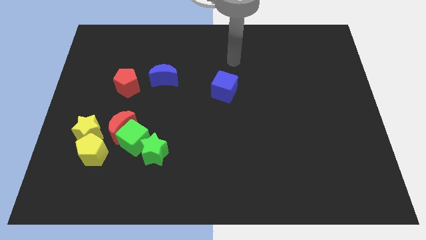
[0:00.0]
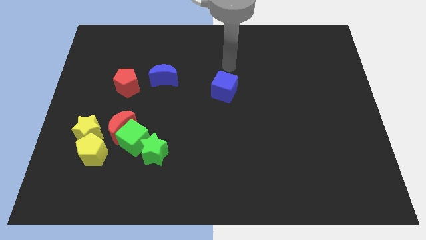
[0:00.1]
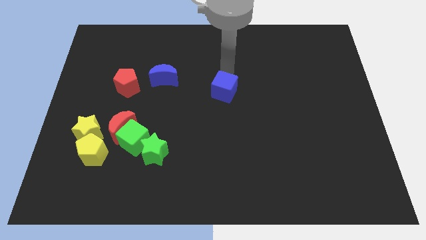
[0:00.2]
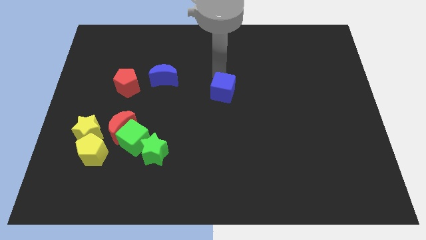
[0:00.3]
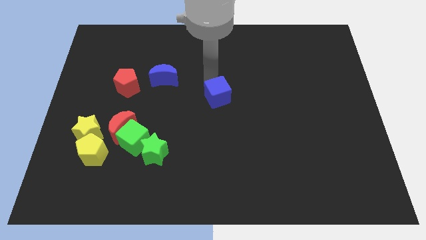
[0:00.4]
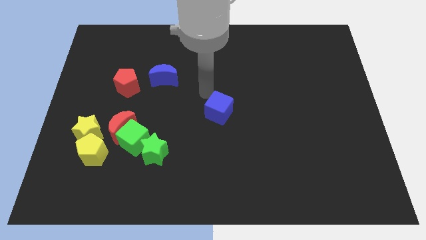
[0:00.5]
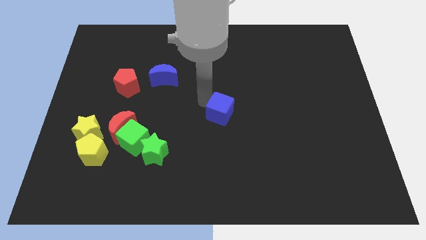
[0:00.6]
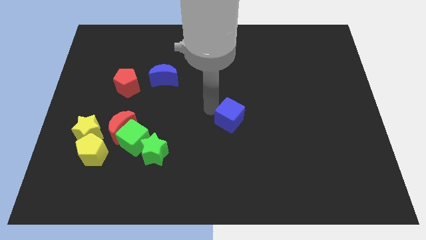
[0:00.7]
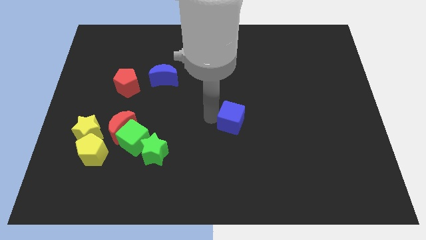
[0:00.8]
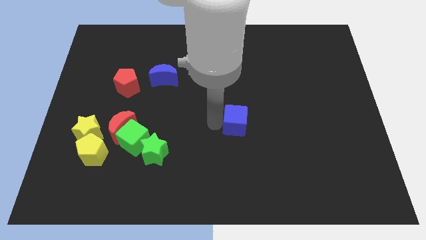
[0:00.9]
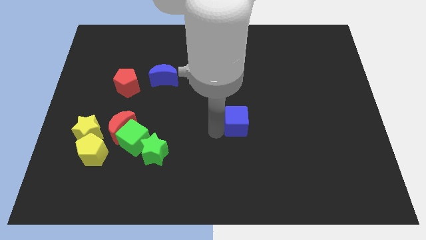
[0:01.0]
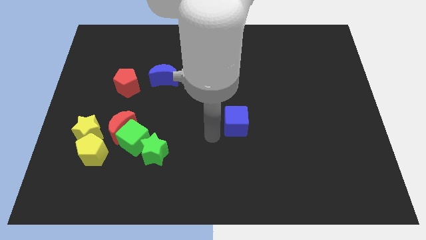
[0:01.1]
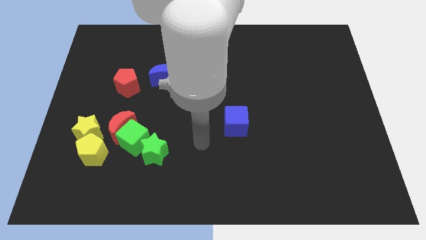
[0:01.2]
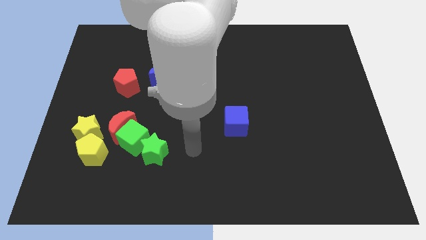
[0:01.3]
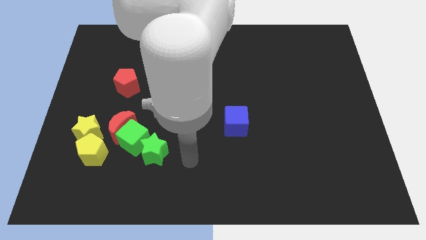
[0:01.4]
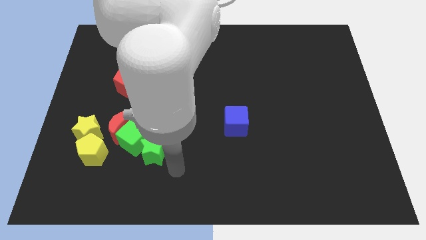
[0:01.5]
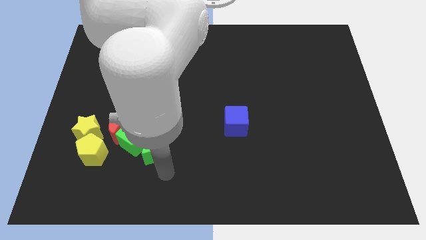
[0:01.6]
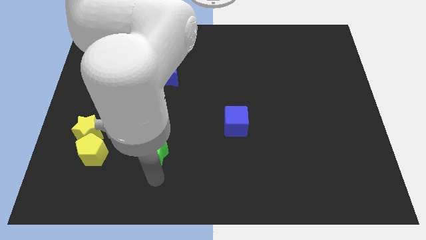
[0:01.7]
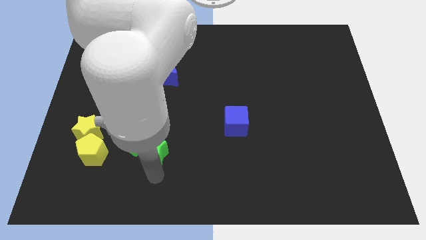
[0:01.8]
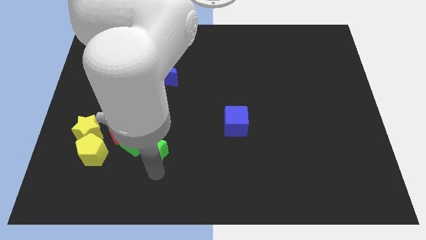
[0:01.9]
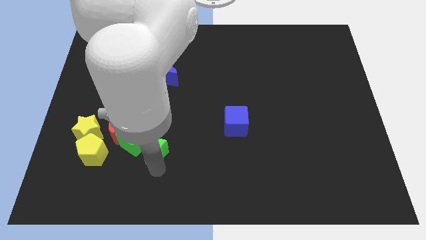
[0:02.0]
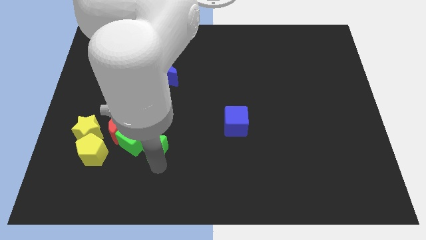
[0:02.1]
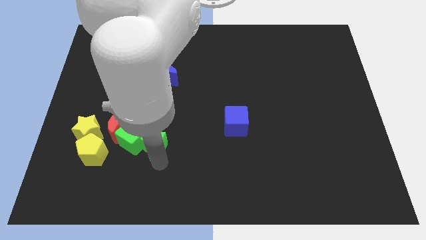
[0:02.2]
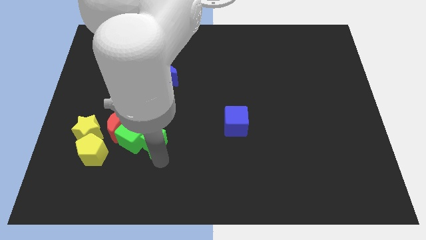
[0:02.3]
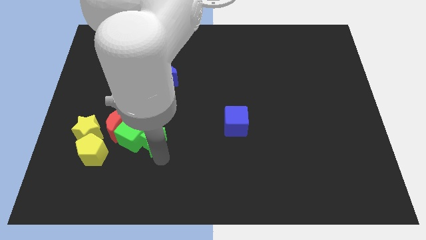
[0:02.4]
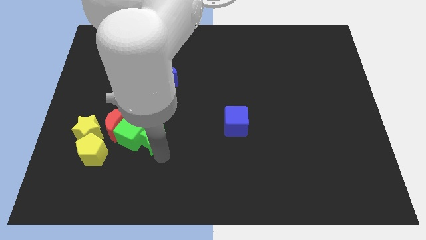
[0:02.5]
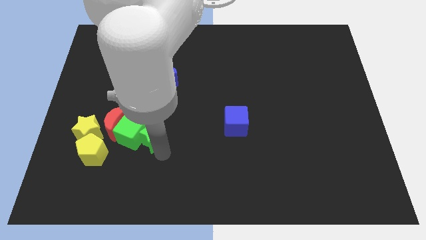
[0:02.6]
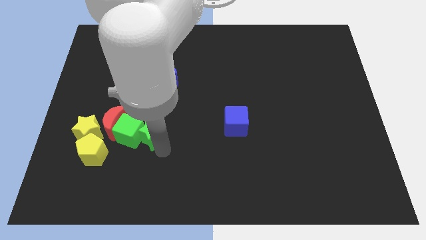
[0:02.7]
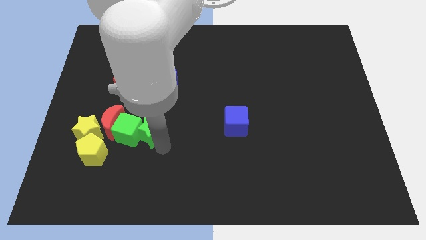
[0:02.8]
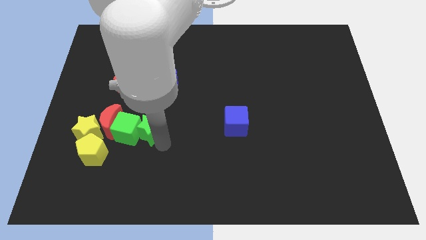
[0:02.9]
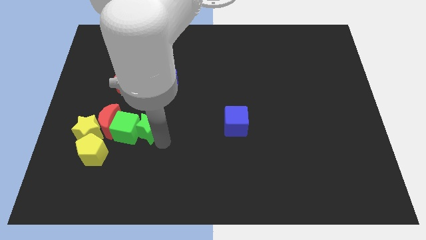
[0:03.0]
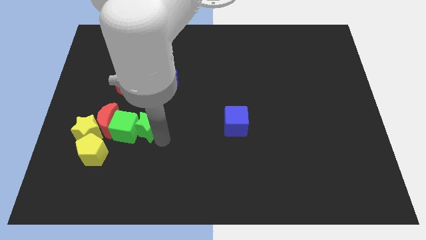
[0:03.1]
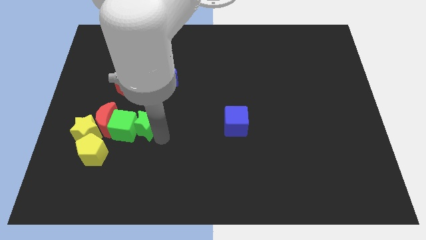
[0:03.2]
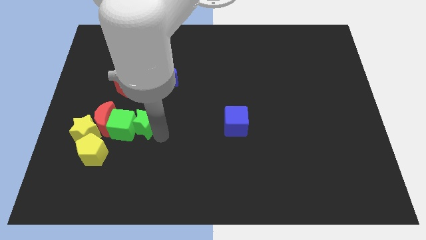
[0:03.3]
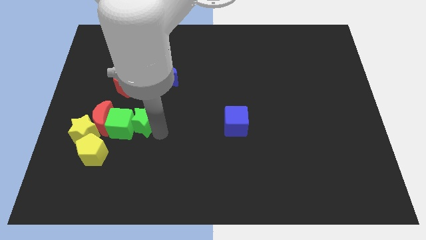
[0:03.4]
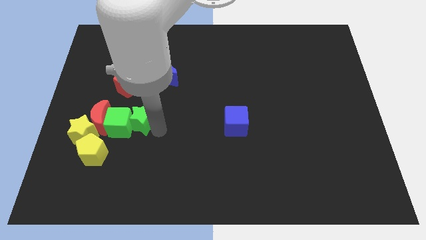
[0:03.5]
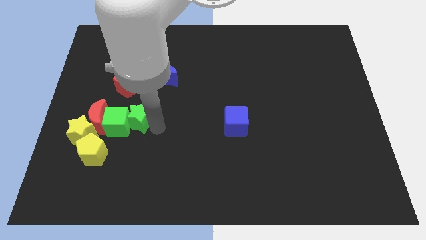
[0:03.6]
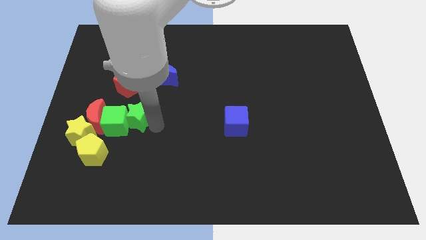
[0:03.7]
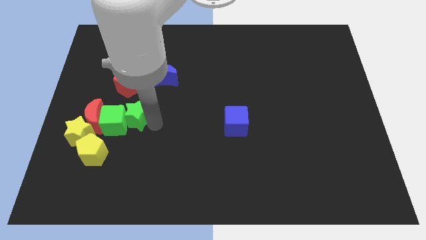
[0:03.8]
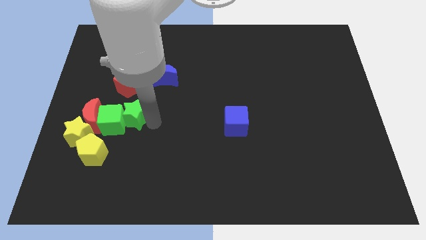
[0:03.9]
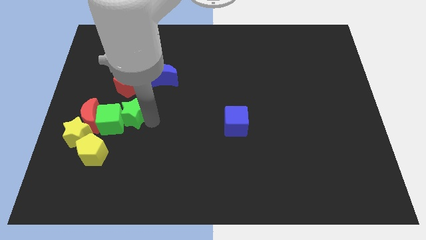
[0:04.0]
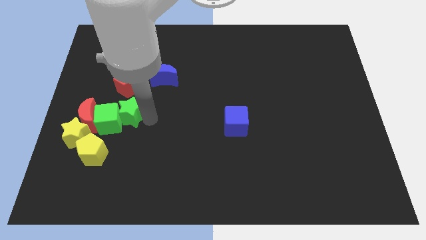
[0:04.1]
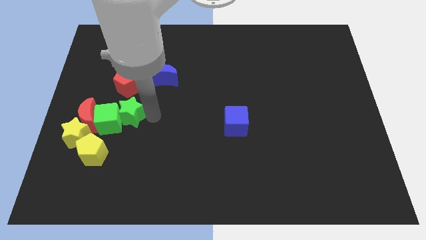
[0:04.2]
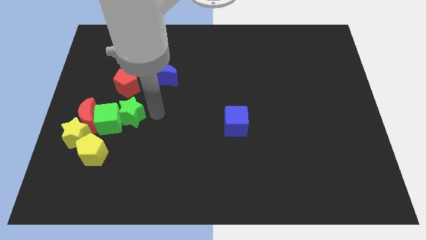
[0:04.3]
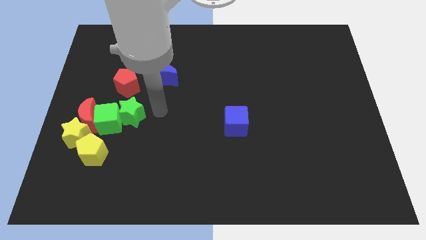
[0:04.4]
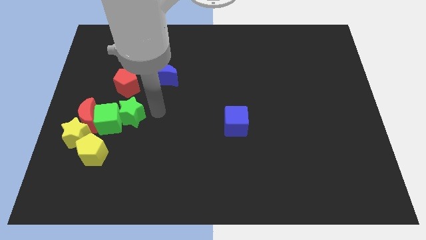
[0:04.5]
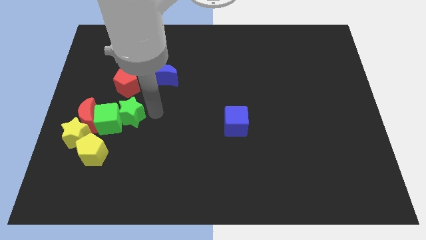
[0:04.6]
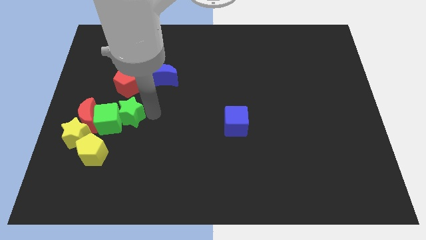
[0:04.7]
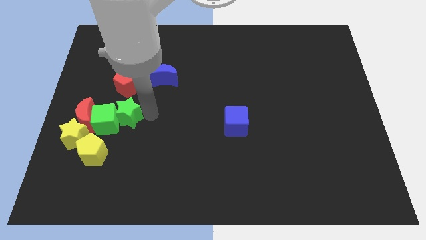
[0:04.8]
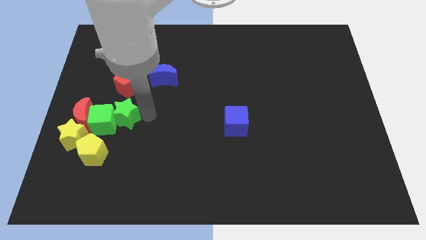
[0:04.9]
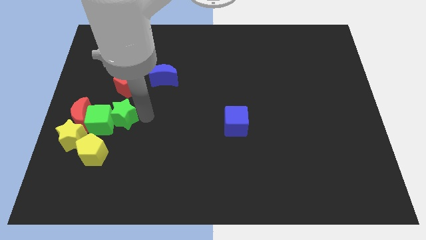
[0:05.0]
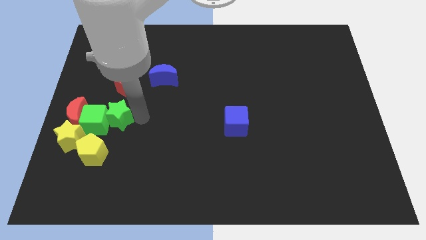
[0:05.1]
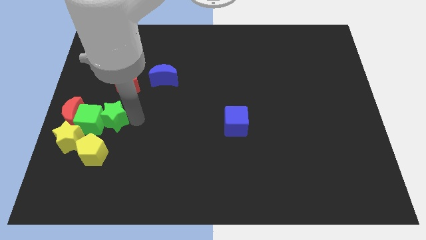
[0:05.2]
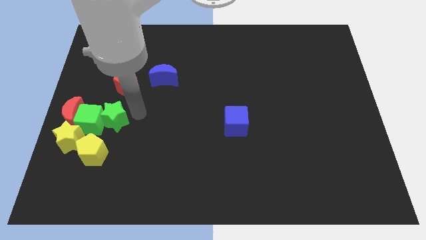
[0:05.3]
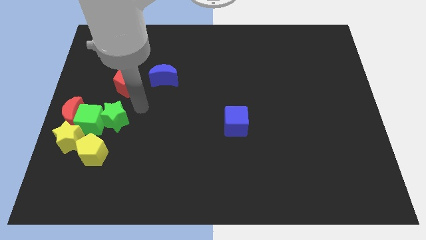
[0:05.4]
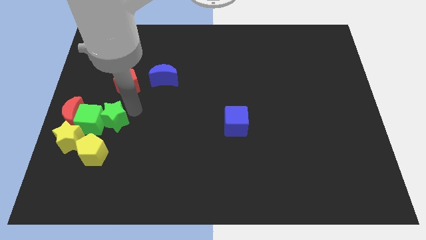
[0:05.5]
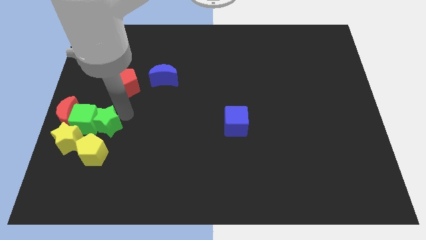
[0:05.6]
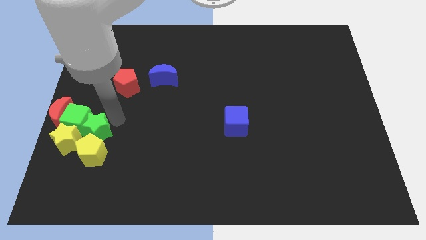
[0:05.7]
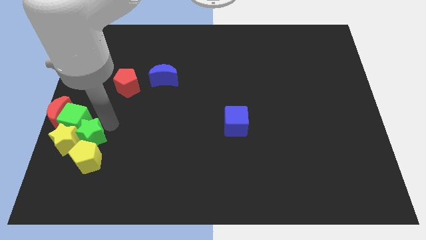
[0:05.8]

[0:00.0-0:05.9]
slide the green star towards the yellow star

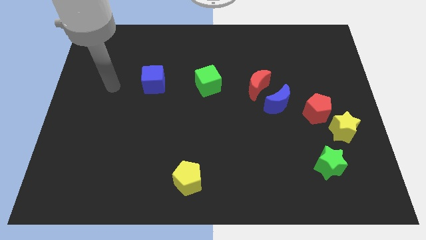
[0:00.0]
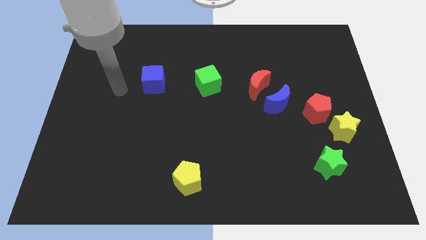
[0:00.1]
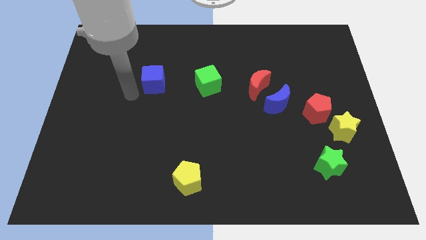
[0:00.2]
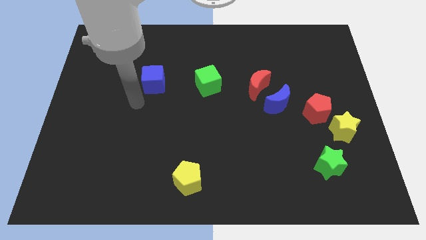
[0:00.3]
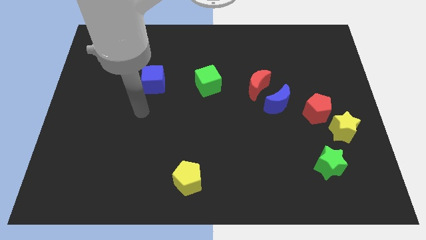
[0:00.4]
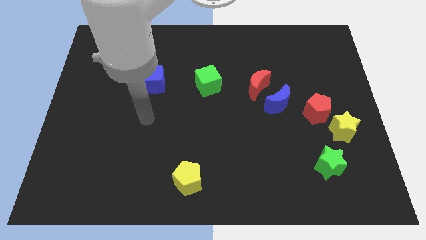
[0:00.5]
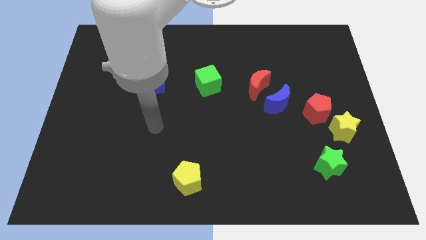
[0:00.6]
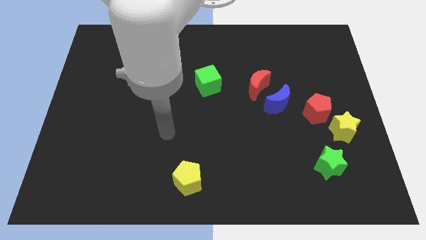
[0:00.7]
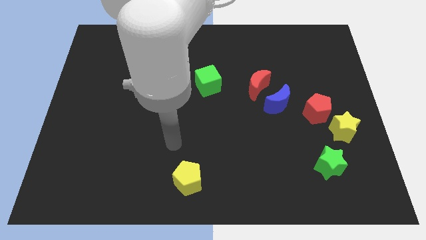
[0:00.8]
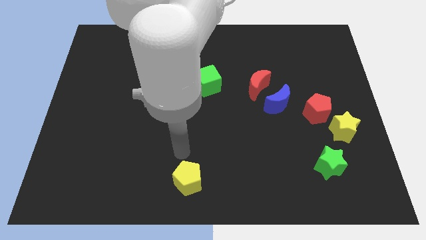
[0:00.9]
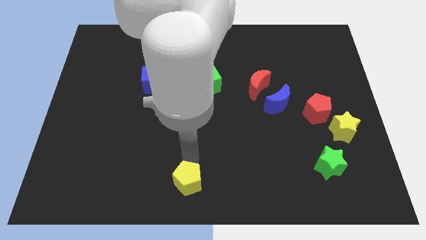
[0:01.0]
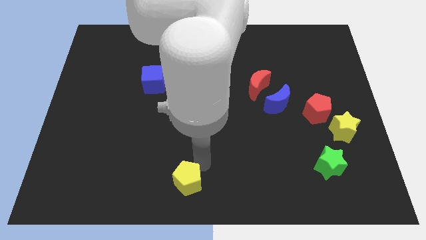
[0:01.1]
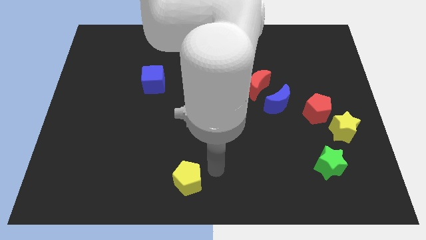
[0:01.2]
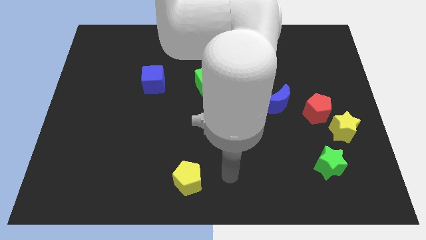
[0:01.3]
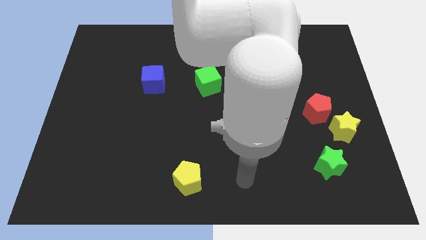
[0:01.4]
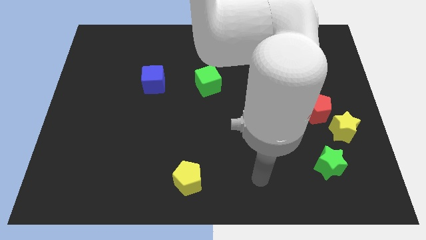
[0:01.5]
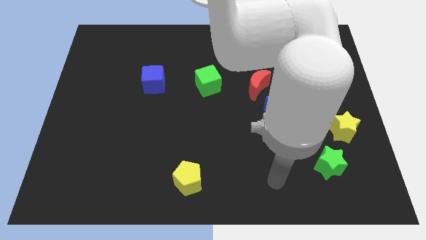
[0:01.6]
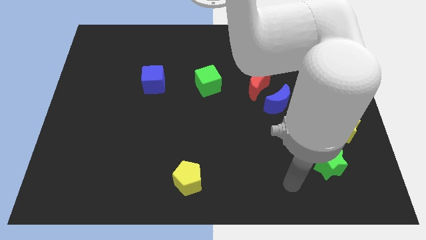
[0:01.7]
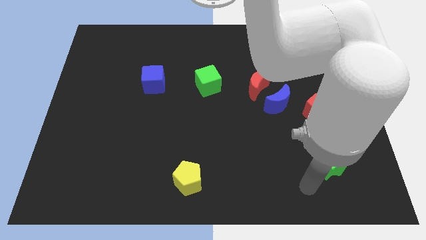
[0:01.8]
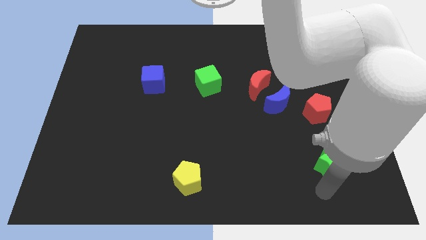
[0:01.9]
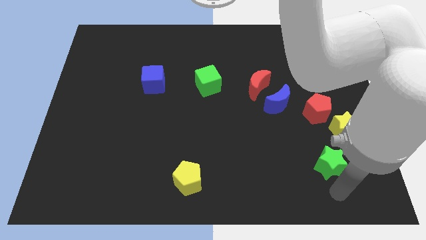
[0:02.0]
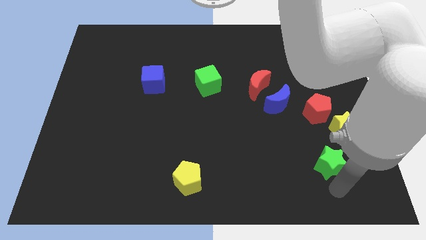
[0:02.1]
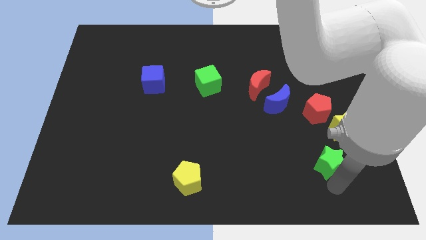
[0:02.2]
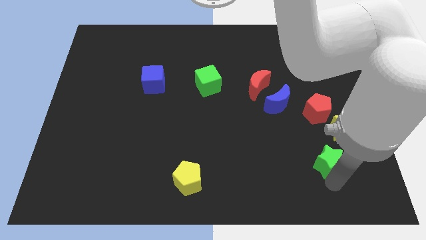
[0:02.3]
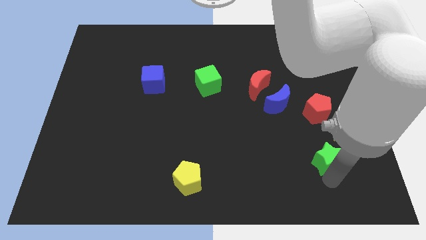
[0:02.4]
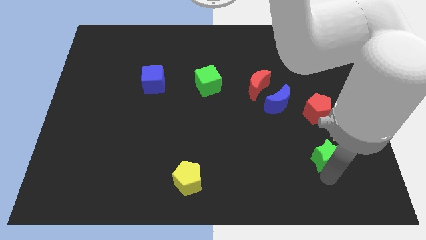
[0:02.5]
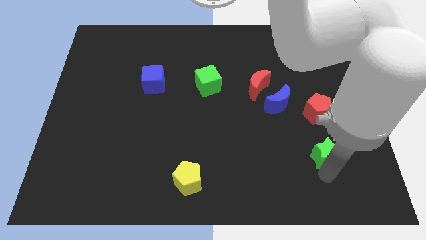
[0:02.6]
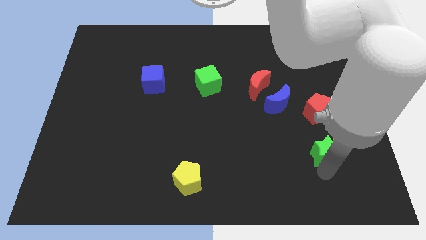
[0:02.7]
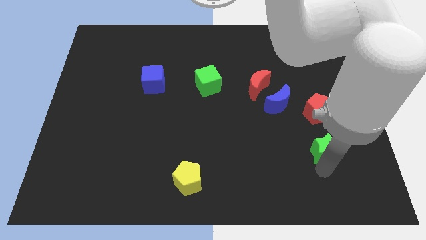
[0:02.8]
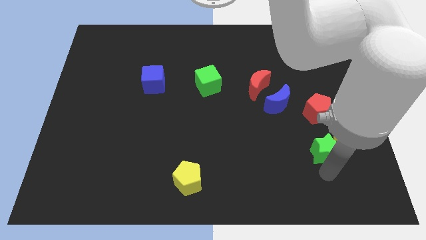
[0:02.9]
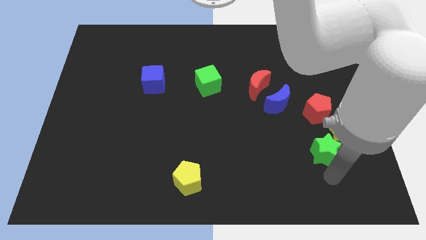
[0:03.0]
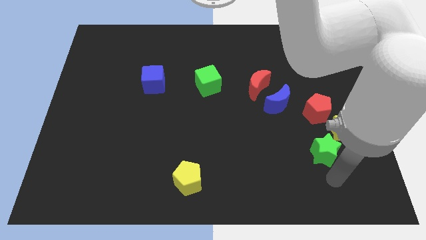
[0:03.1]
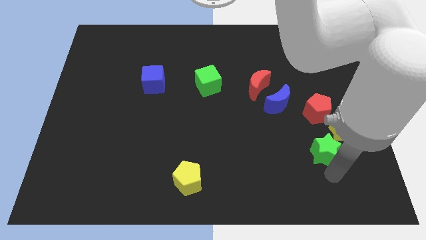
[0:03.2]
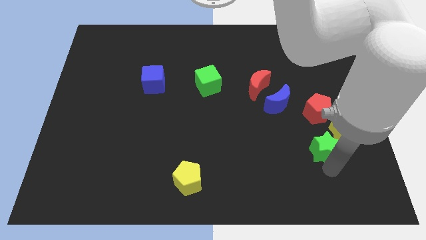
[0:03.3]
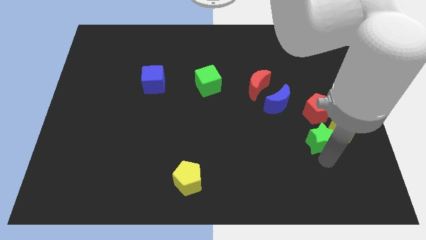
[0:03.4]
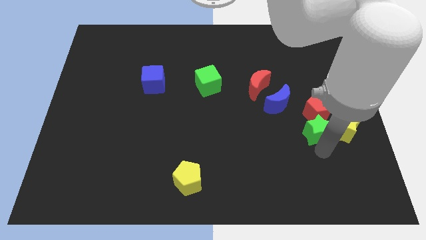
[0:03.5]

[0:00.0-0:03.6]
push the green star next to the red pentagon
